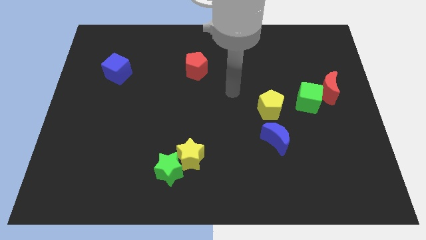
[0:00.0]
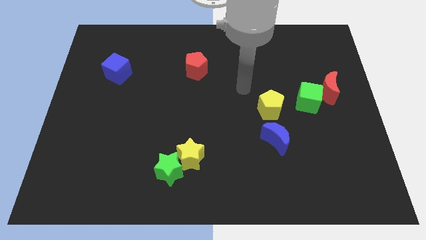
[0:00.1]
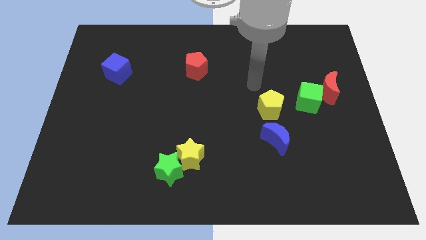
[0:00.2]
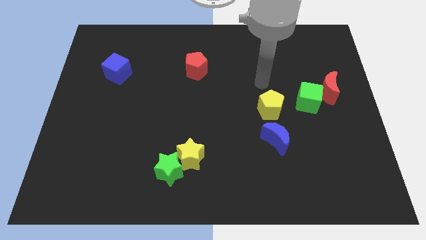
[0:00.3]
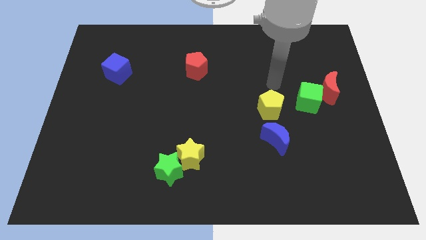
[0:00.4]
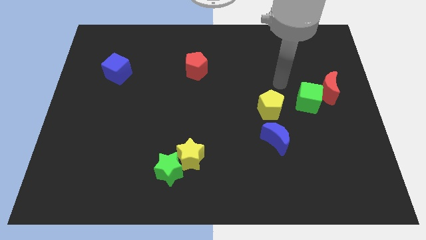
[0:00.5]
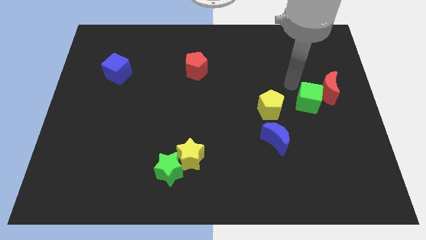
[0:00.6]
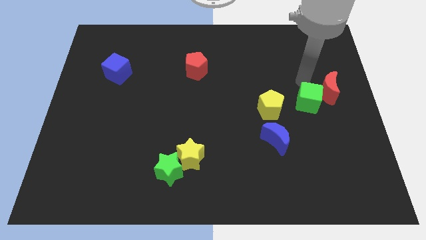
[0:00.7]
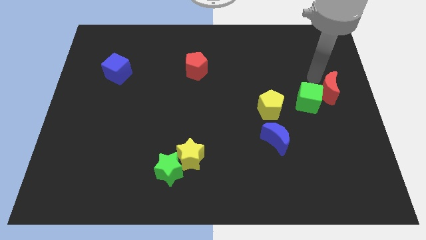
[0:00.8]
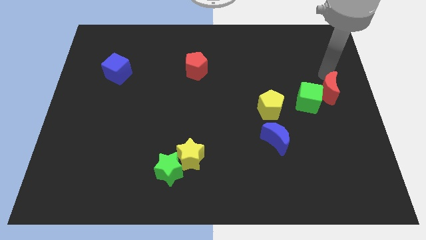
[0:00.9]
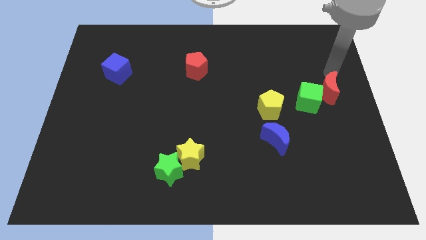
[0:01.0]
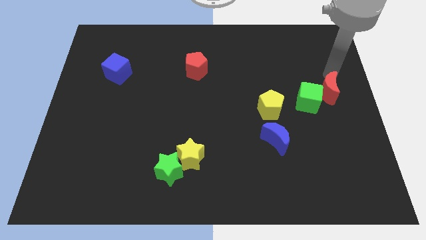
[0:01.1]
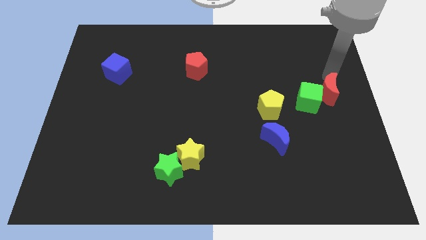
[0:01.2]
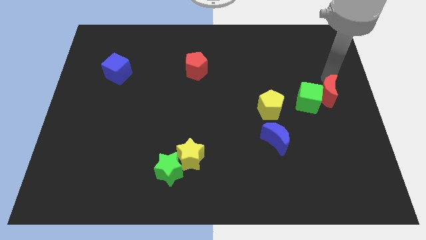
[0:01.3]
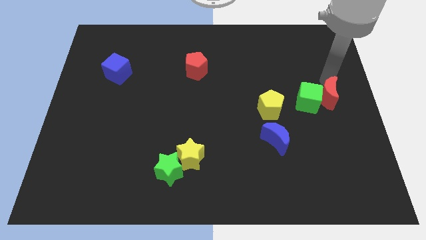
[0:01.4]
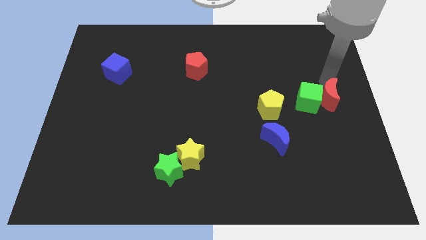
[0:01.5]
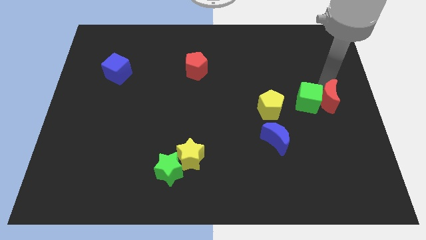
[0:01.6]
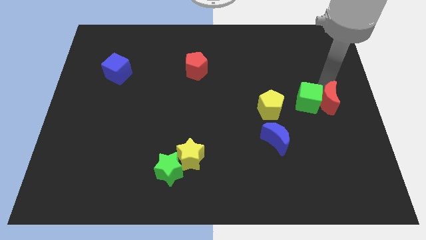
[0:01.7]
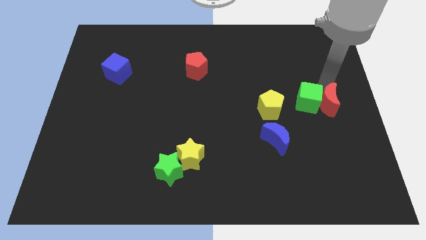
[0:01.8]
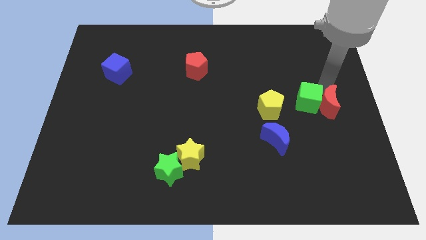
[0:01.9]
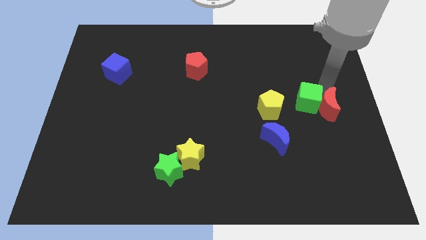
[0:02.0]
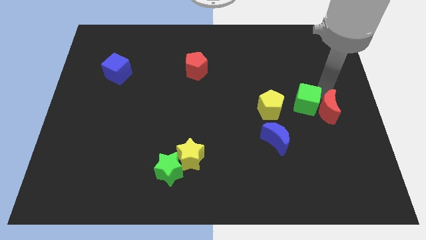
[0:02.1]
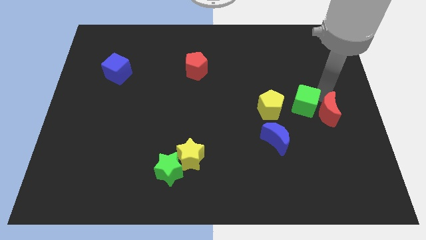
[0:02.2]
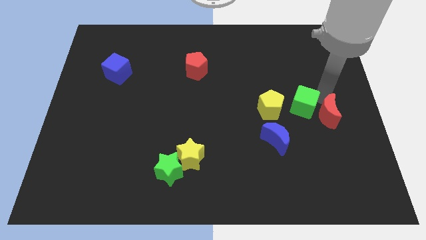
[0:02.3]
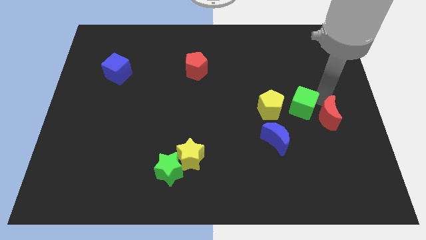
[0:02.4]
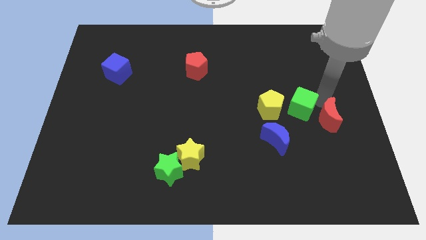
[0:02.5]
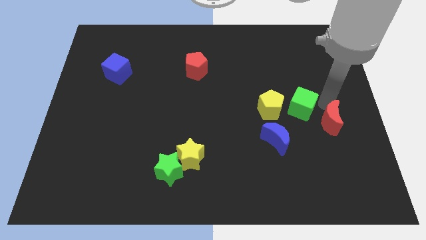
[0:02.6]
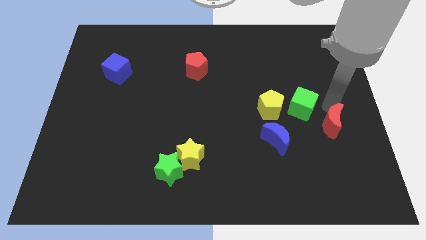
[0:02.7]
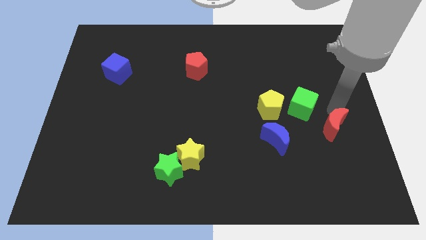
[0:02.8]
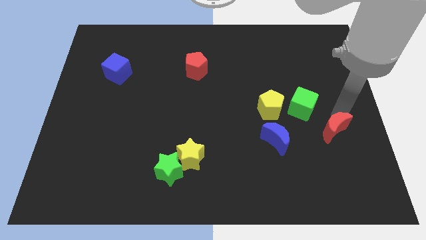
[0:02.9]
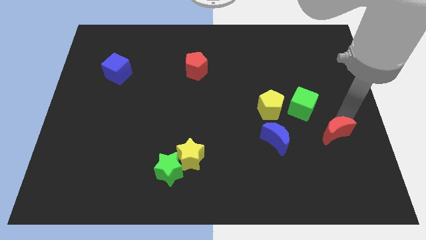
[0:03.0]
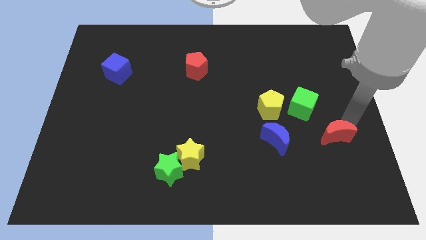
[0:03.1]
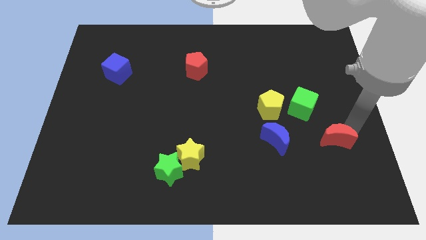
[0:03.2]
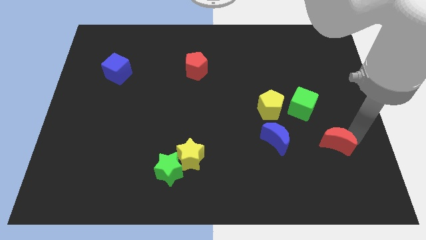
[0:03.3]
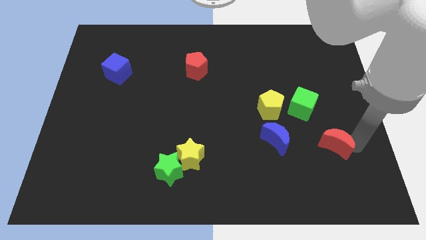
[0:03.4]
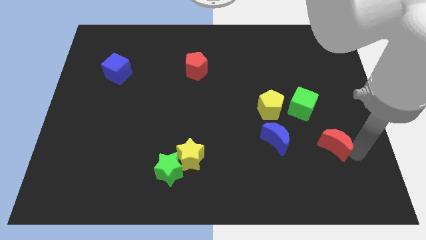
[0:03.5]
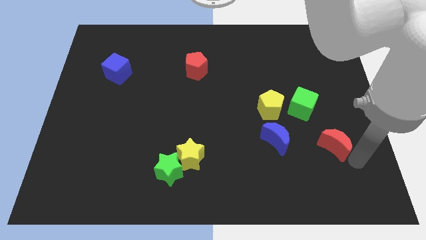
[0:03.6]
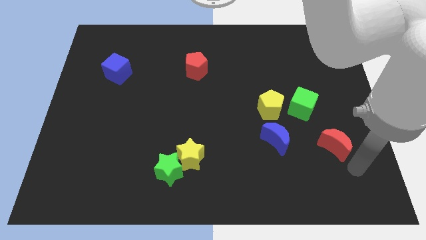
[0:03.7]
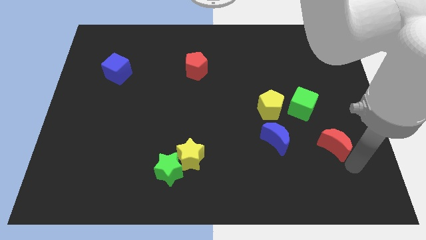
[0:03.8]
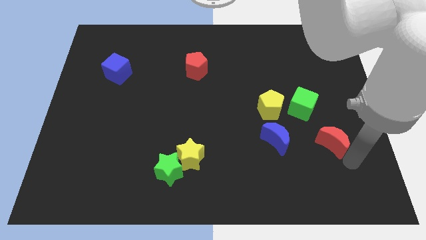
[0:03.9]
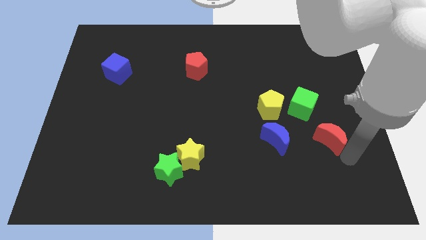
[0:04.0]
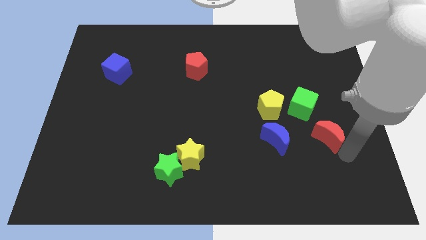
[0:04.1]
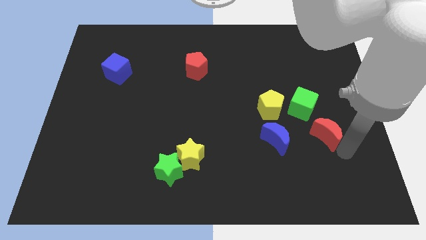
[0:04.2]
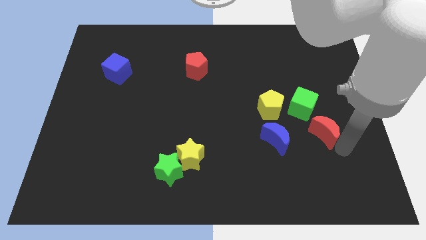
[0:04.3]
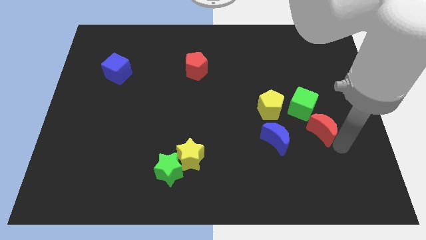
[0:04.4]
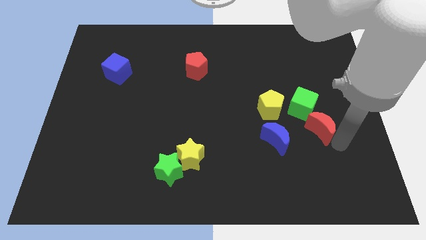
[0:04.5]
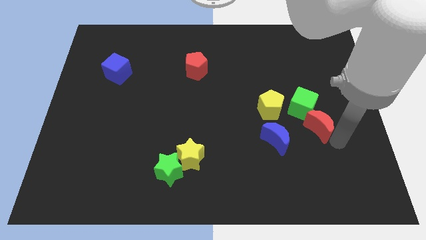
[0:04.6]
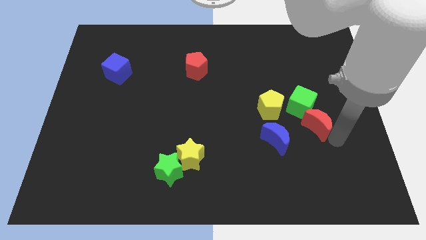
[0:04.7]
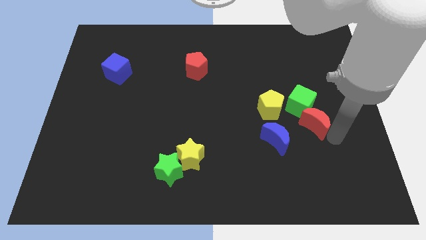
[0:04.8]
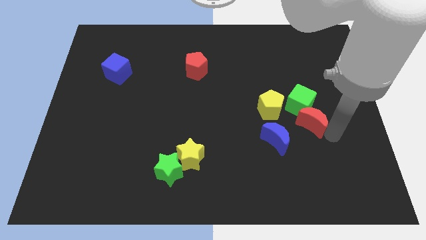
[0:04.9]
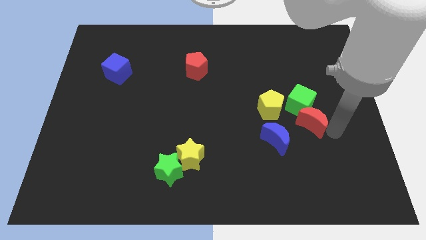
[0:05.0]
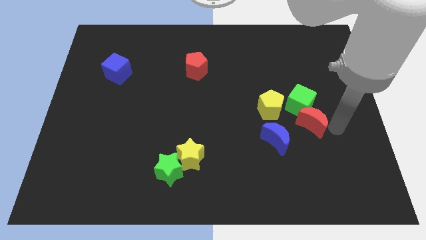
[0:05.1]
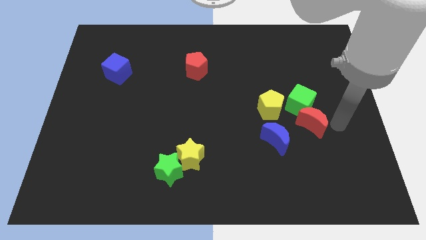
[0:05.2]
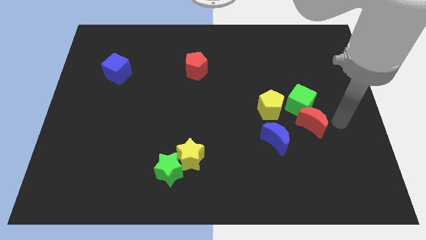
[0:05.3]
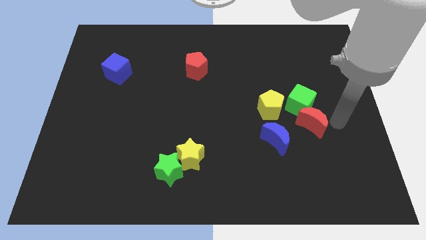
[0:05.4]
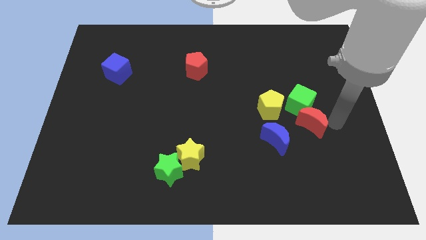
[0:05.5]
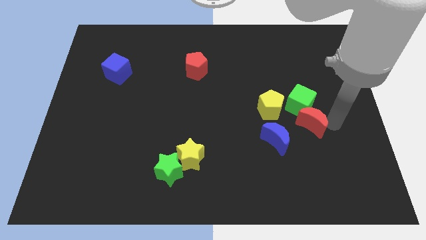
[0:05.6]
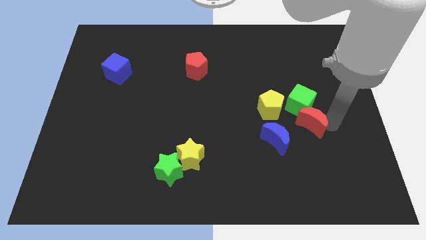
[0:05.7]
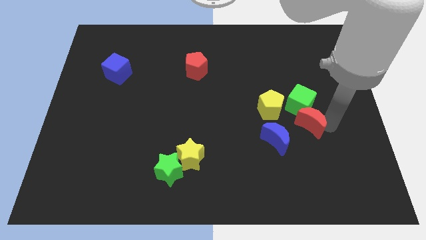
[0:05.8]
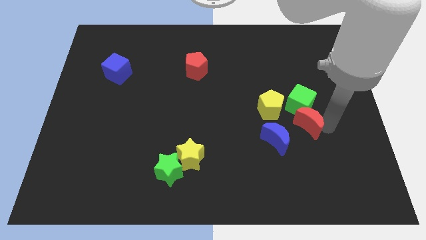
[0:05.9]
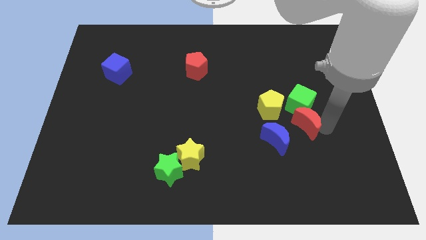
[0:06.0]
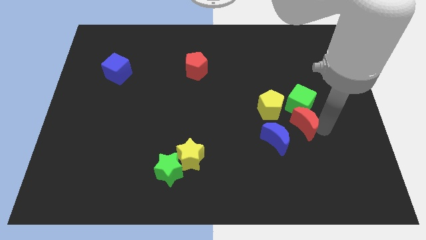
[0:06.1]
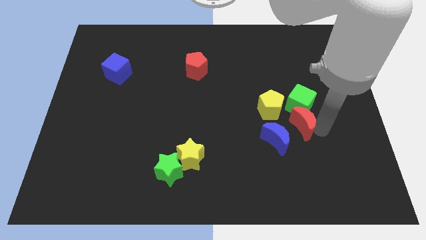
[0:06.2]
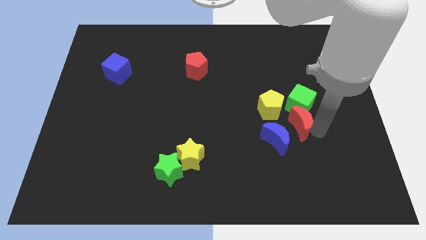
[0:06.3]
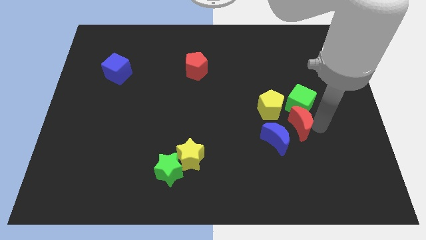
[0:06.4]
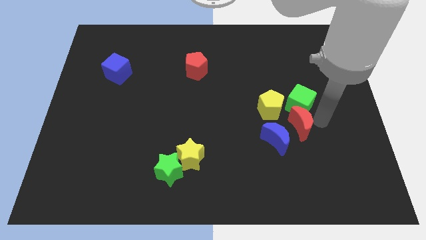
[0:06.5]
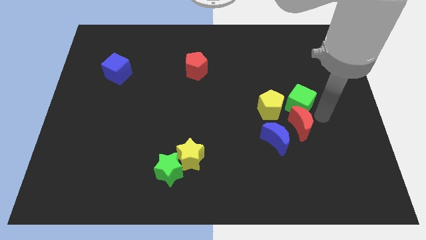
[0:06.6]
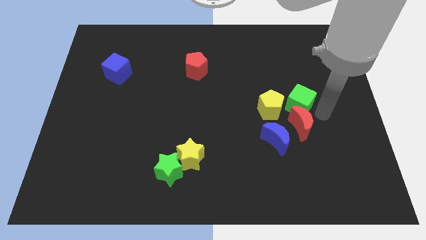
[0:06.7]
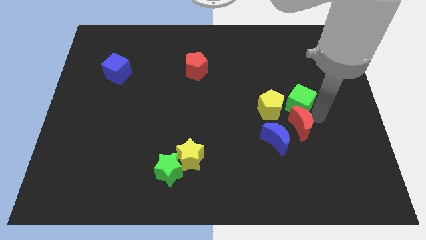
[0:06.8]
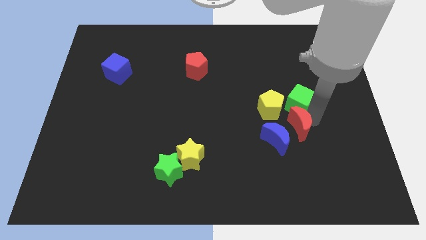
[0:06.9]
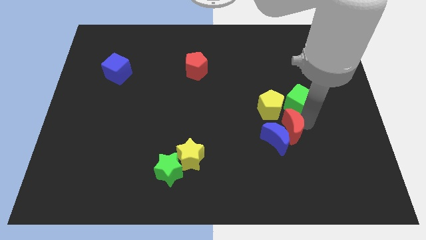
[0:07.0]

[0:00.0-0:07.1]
put the red moon to the blue moon
